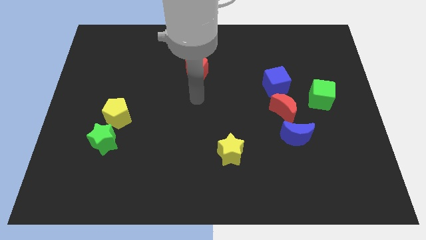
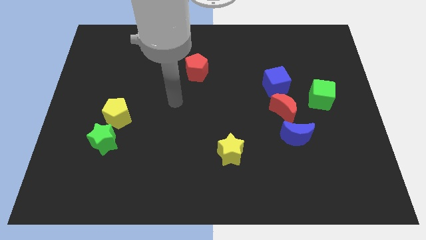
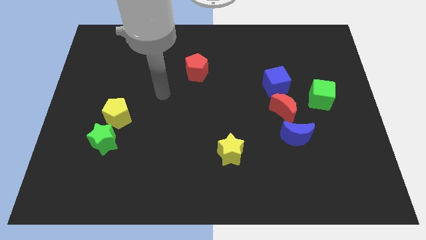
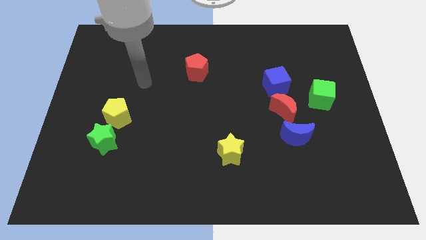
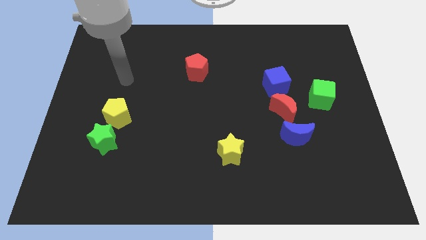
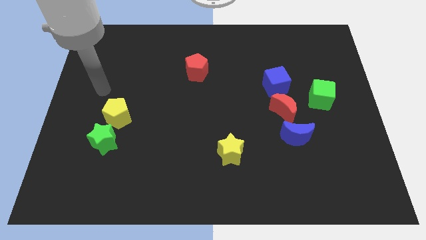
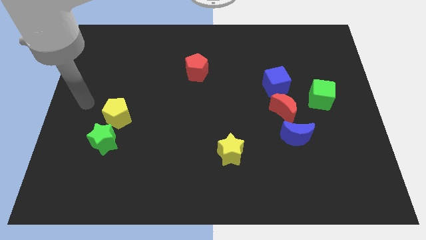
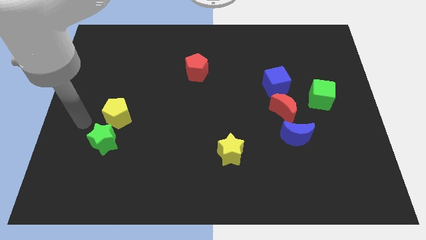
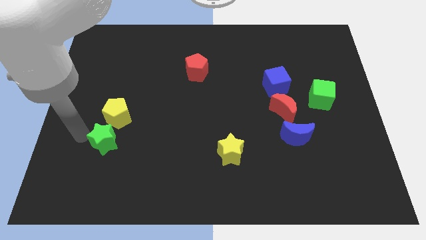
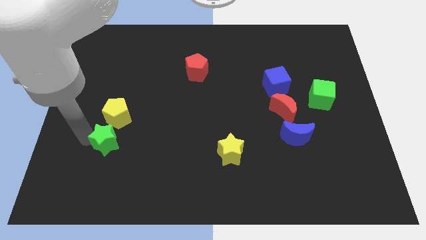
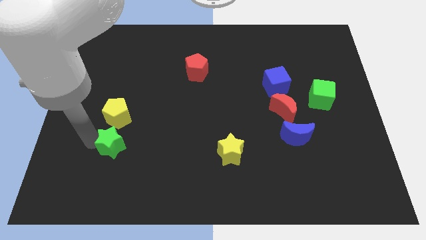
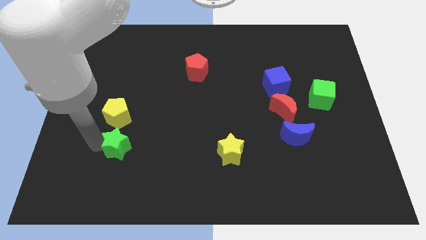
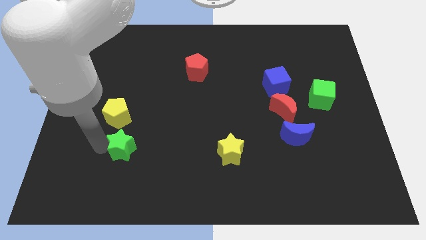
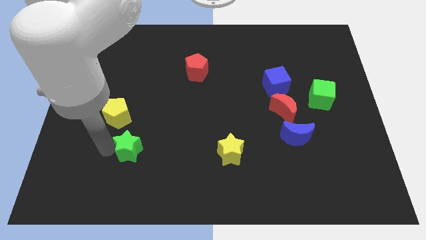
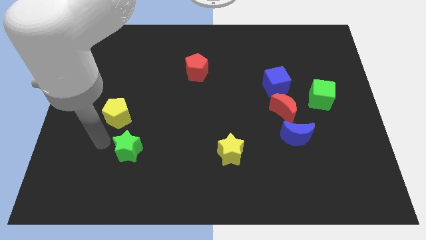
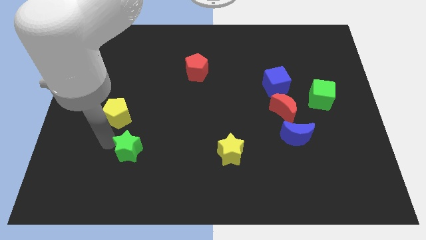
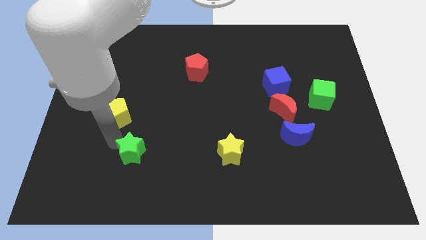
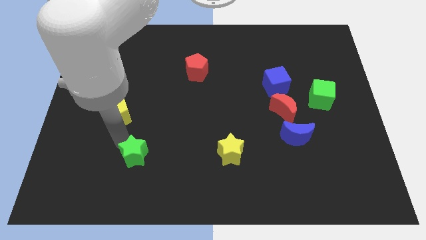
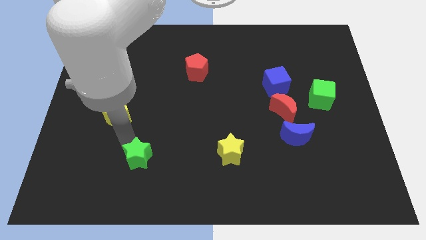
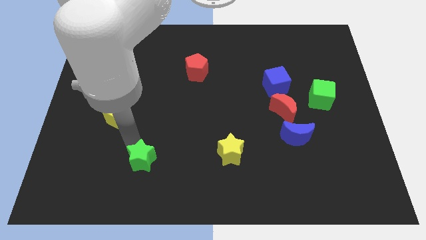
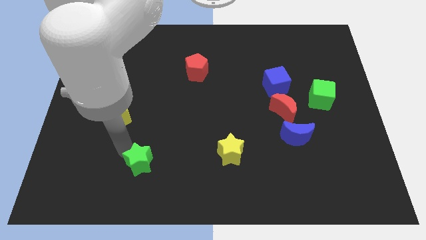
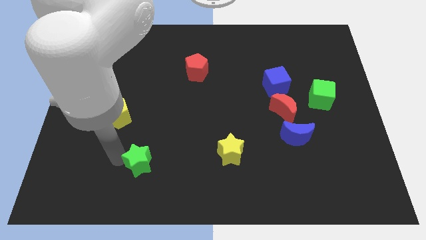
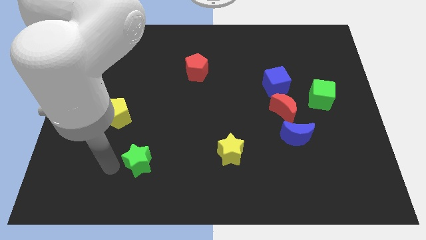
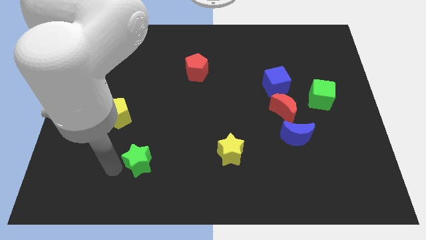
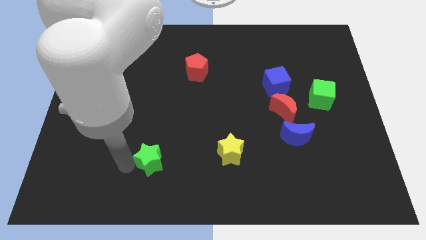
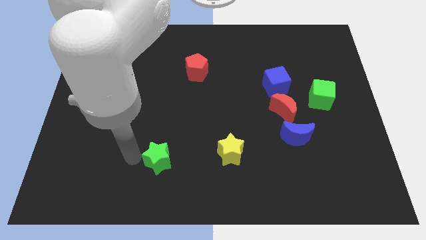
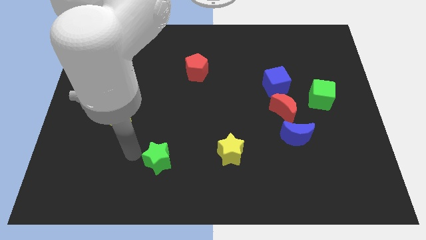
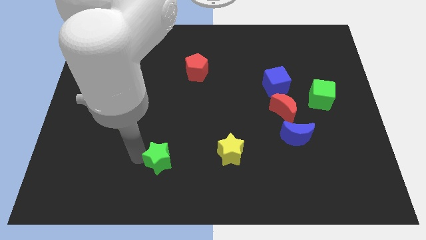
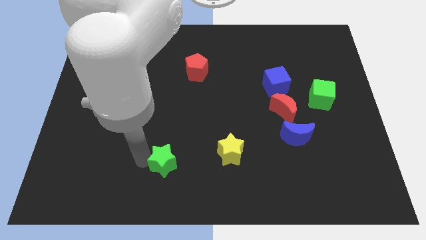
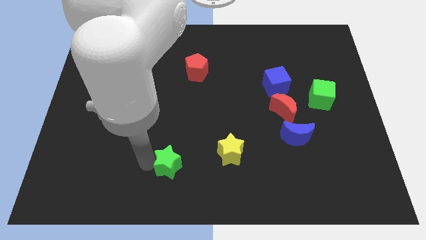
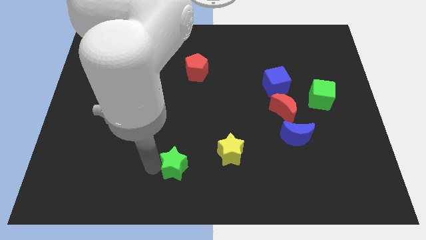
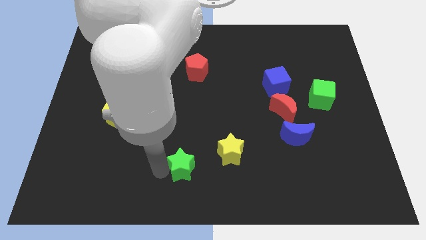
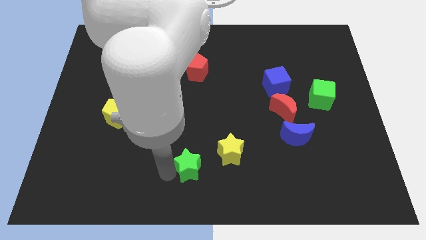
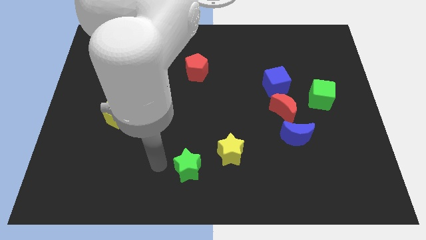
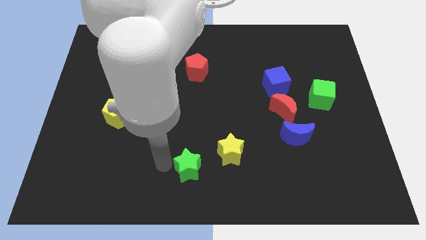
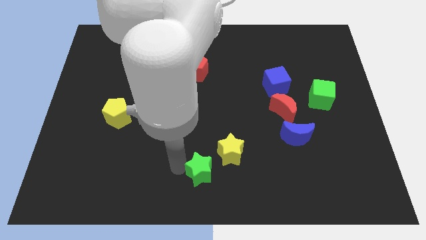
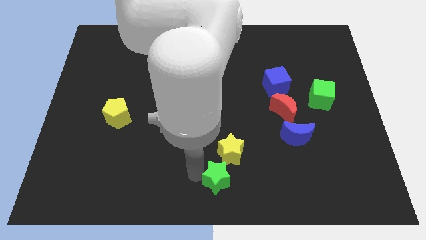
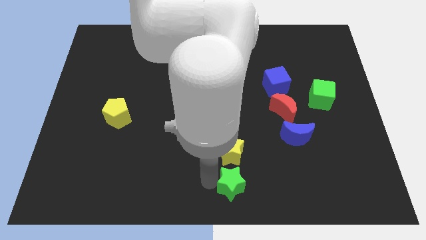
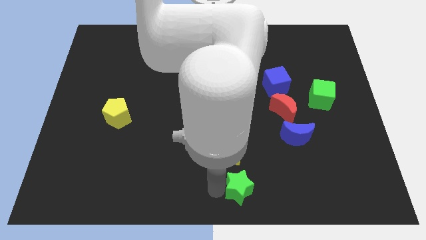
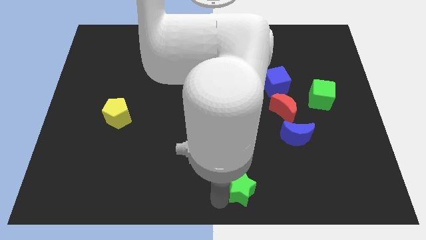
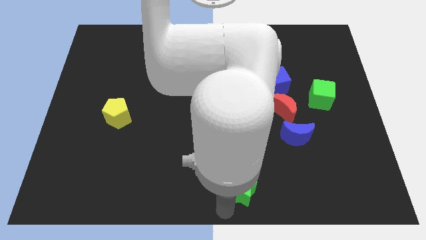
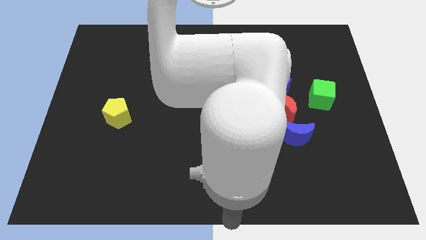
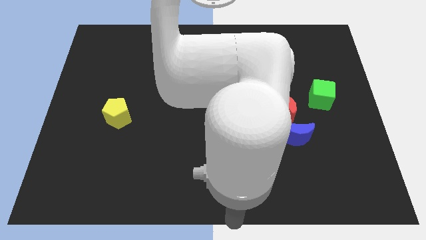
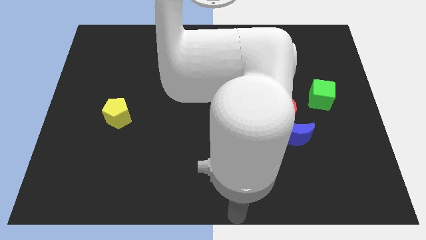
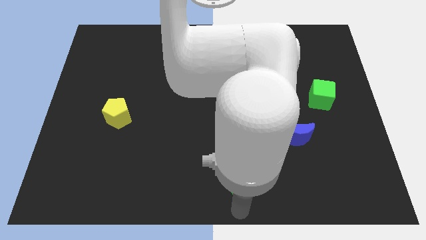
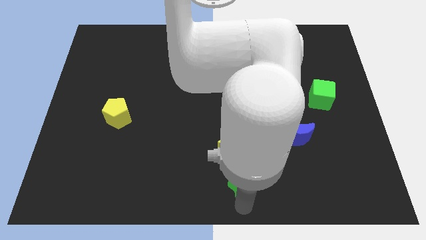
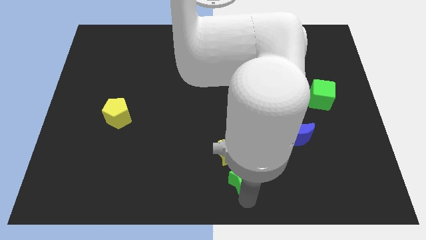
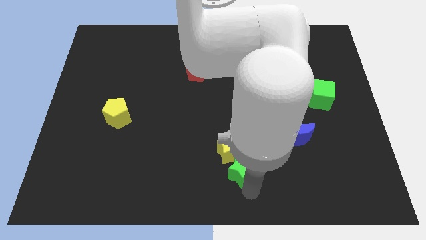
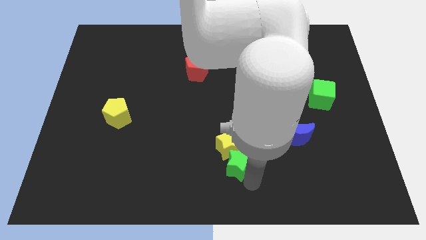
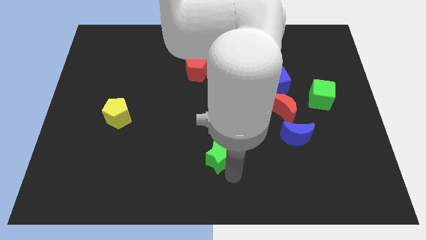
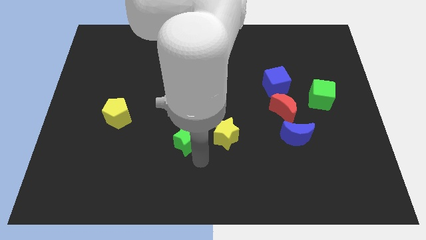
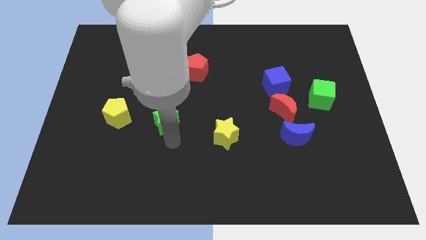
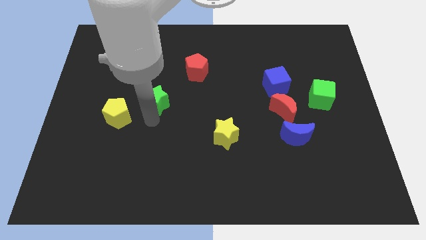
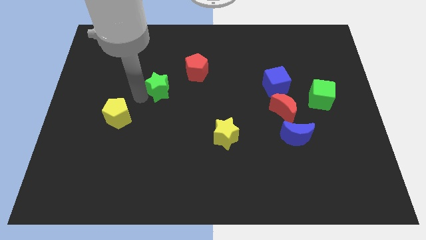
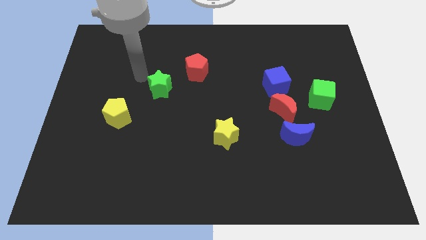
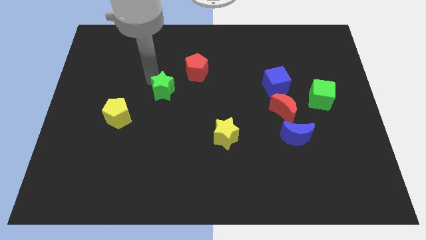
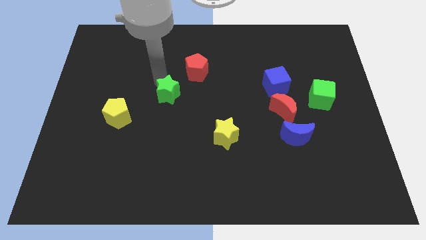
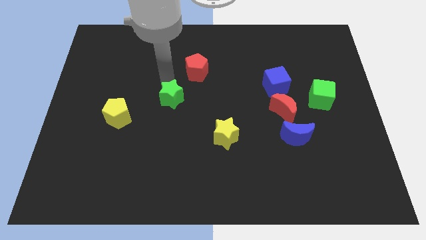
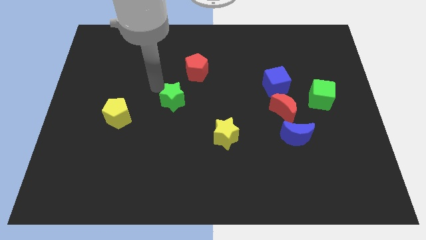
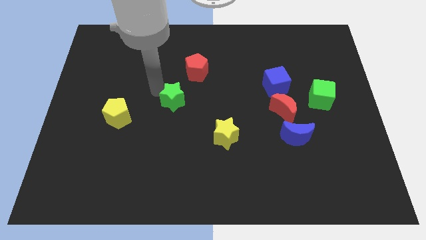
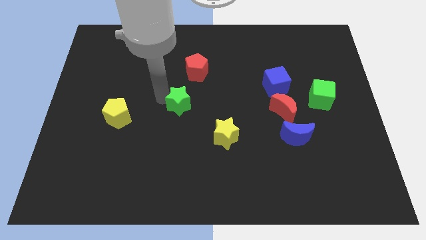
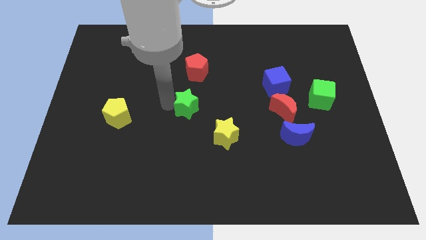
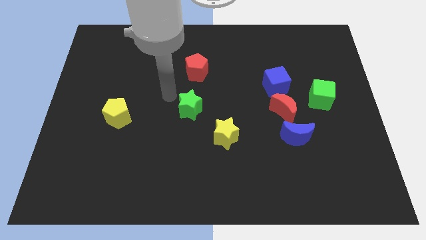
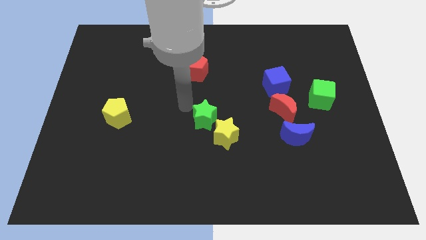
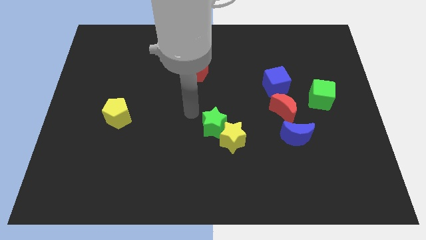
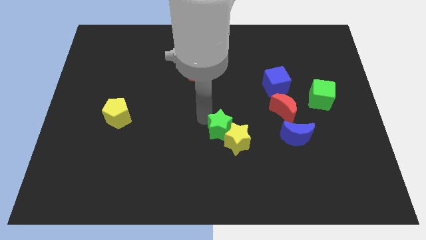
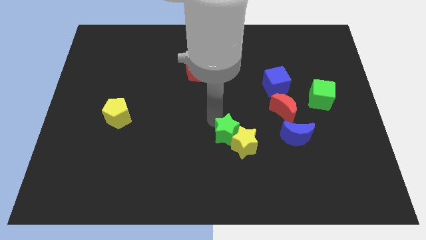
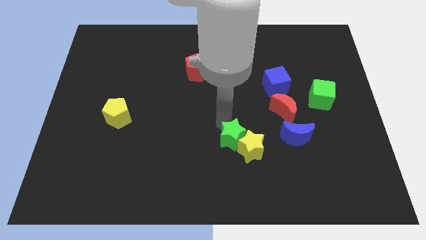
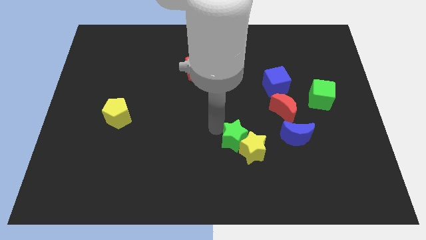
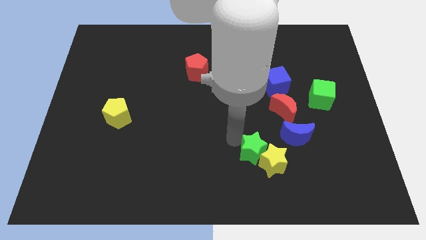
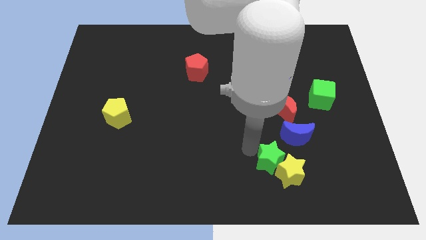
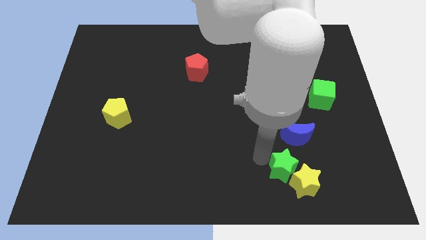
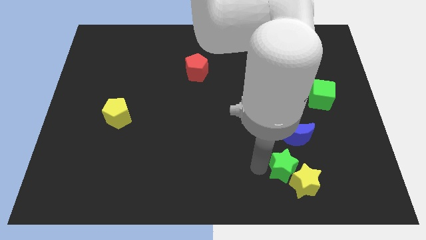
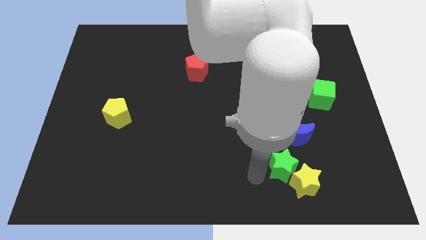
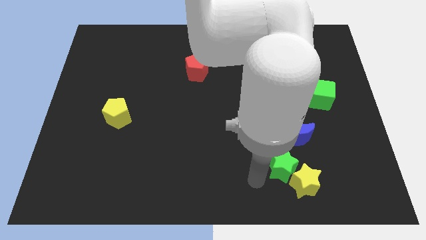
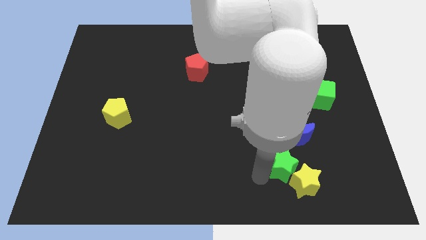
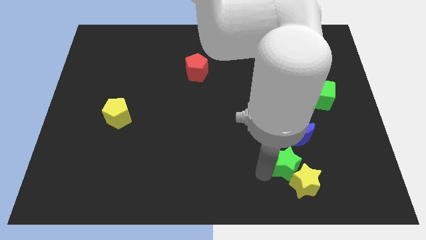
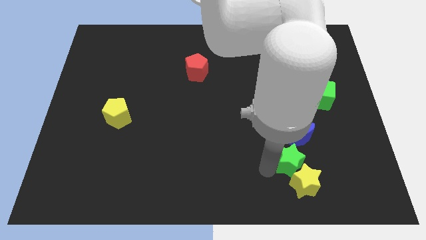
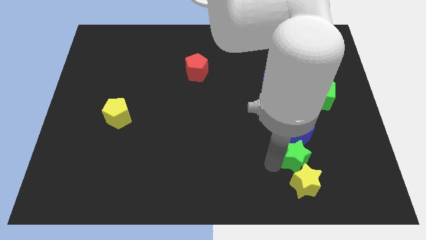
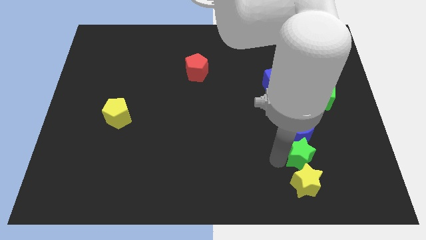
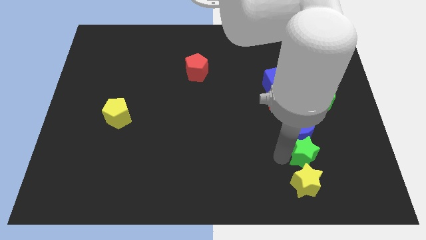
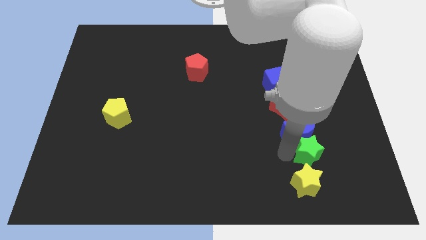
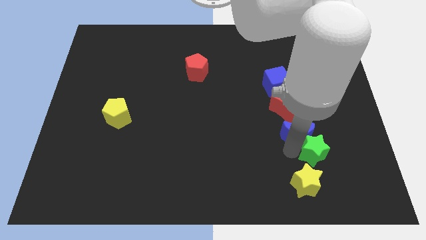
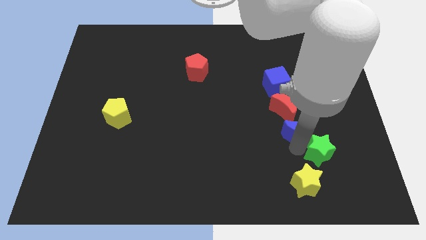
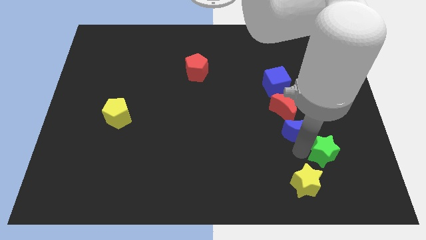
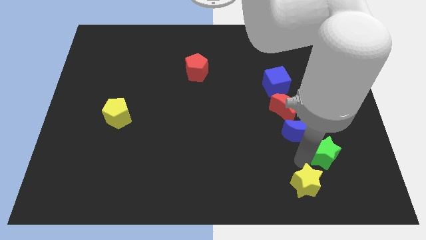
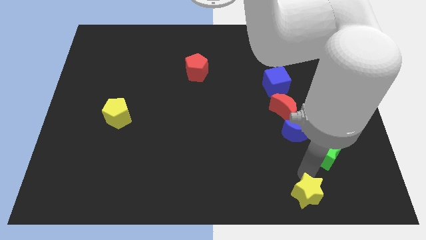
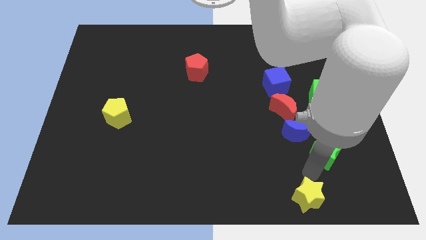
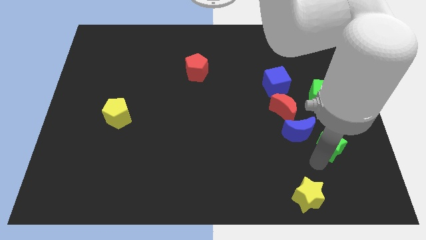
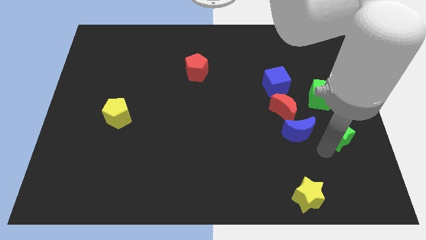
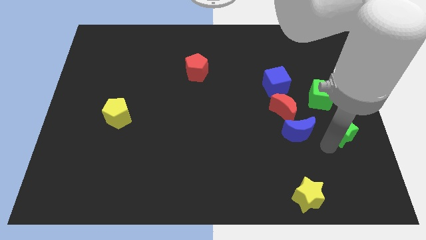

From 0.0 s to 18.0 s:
push the green star to the right side
